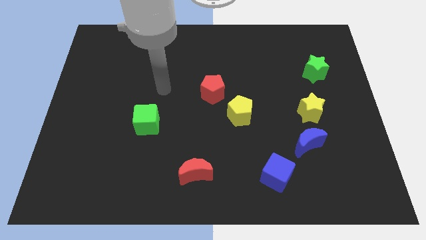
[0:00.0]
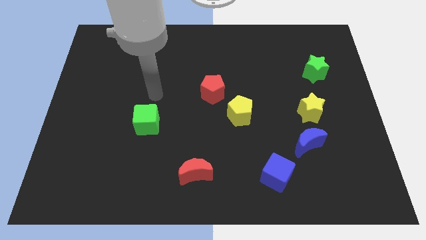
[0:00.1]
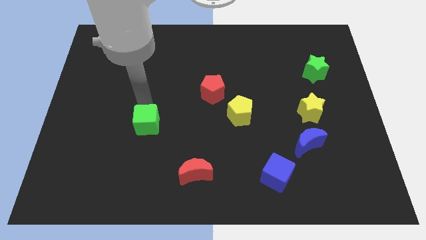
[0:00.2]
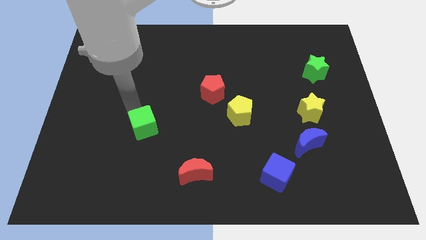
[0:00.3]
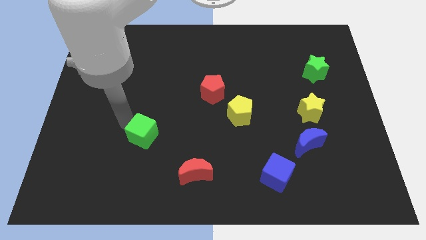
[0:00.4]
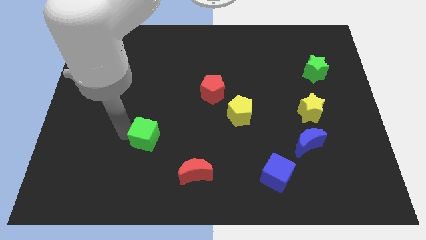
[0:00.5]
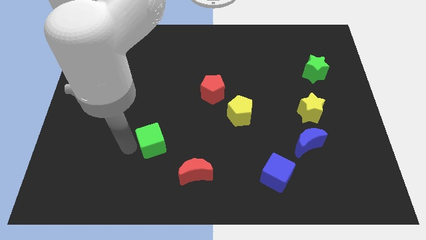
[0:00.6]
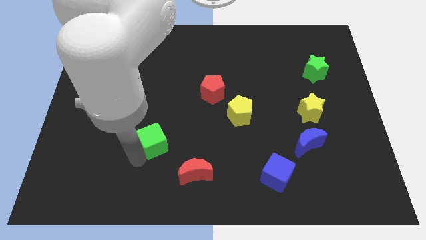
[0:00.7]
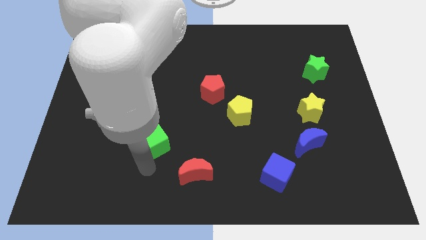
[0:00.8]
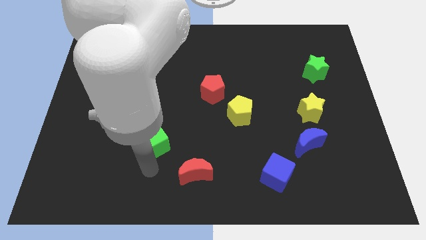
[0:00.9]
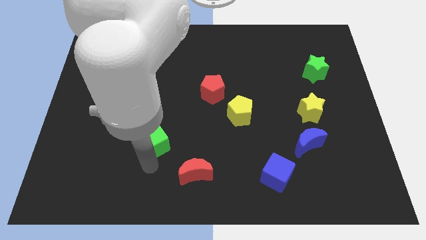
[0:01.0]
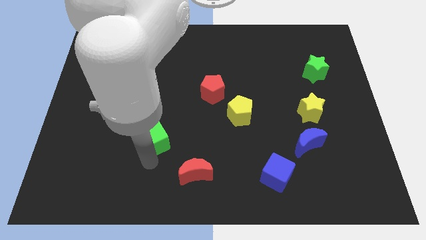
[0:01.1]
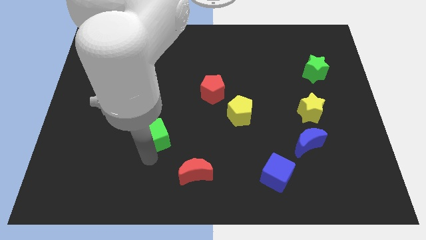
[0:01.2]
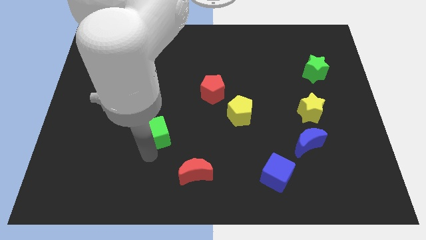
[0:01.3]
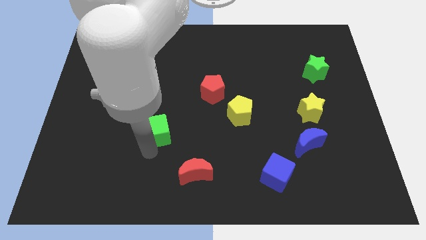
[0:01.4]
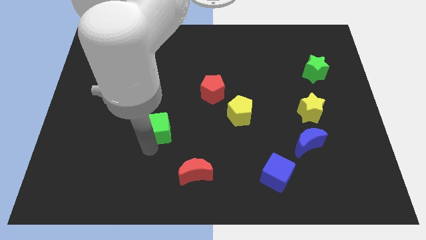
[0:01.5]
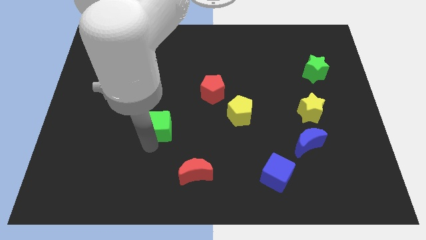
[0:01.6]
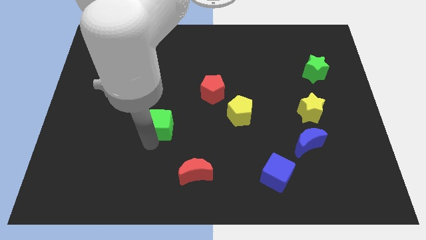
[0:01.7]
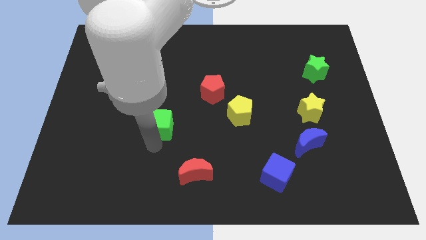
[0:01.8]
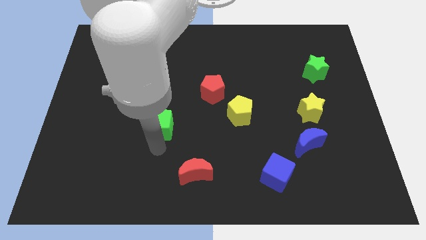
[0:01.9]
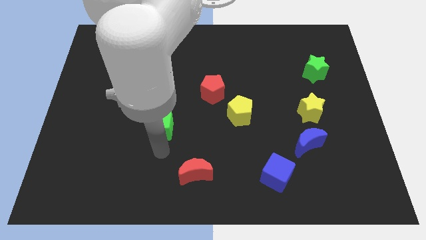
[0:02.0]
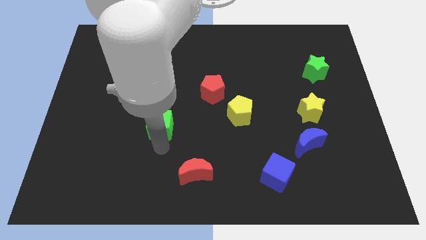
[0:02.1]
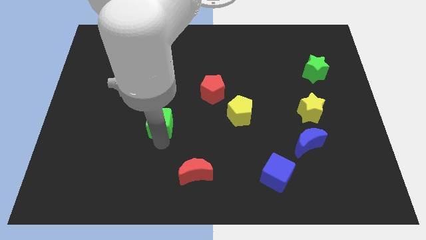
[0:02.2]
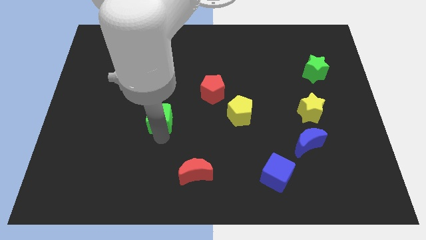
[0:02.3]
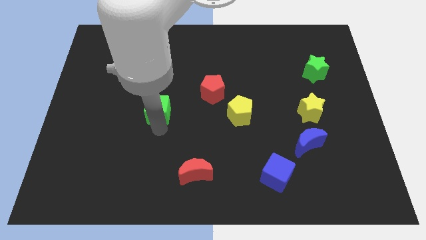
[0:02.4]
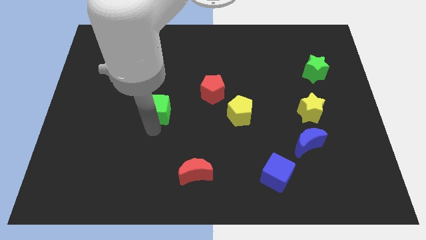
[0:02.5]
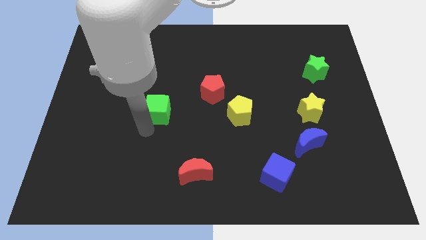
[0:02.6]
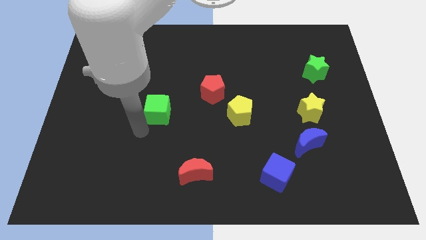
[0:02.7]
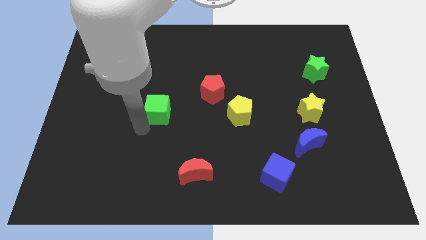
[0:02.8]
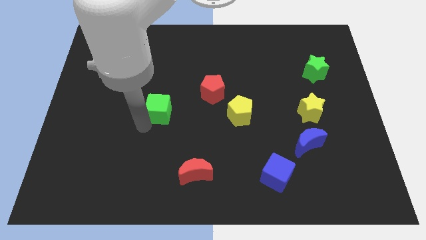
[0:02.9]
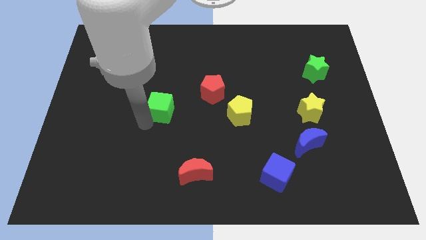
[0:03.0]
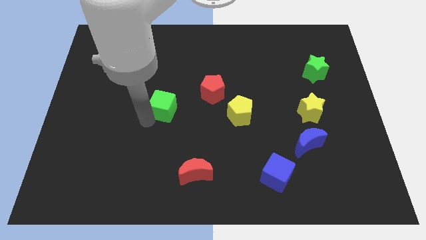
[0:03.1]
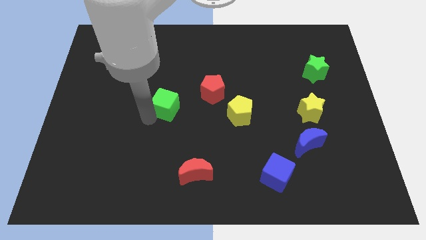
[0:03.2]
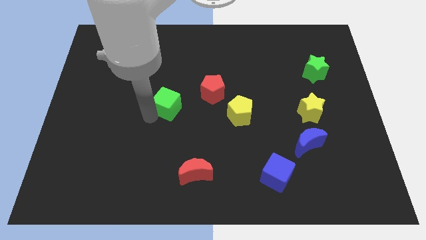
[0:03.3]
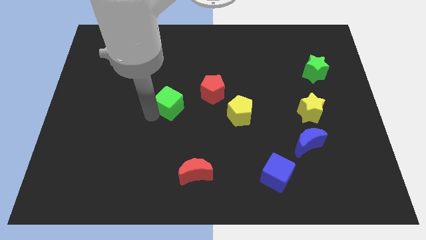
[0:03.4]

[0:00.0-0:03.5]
slightly move the green cube upwards and then to the right

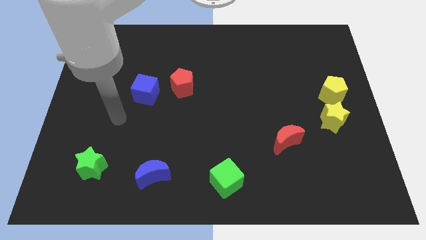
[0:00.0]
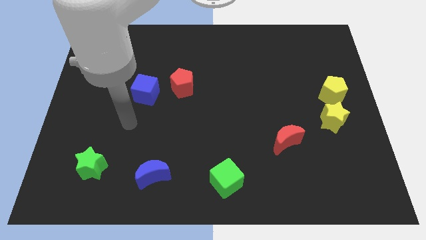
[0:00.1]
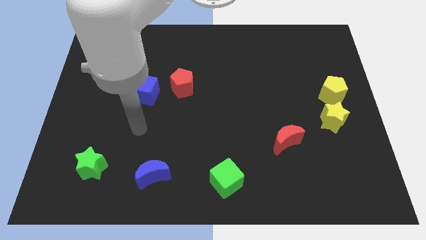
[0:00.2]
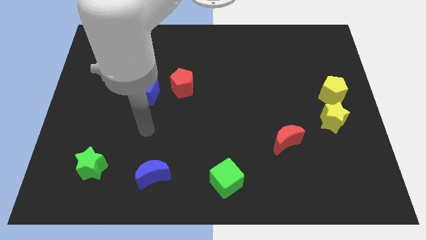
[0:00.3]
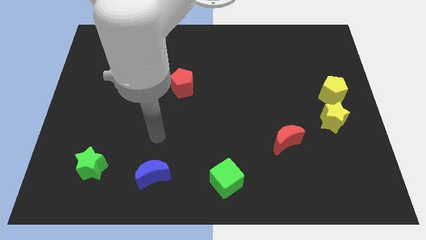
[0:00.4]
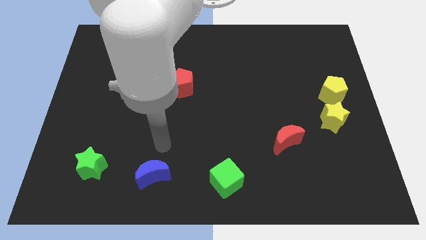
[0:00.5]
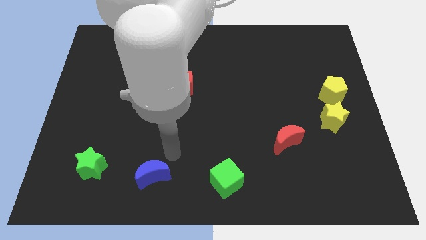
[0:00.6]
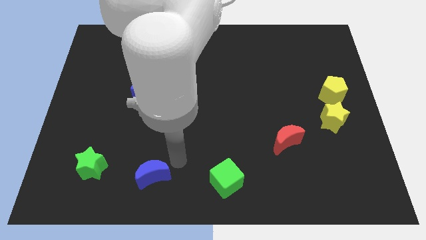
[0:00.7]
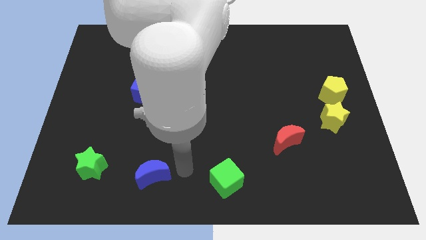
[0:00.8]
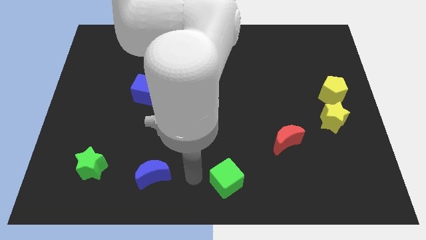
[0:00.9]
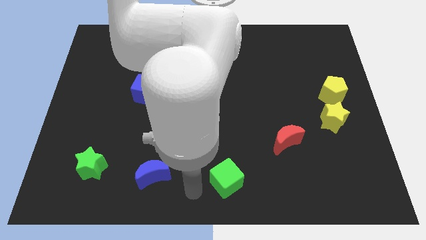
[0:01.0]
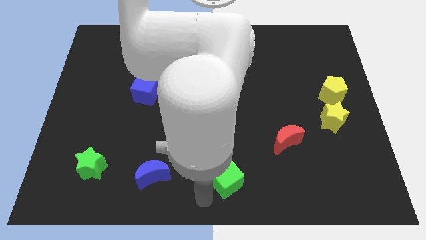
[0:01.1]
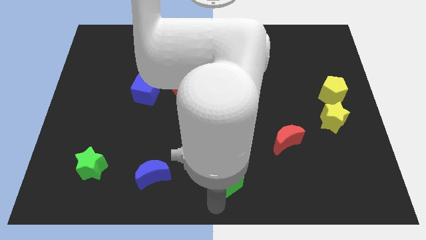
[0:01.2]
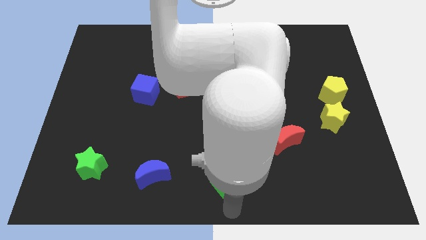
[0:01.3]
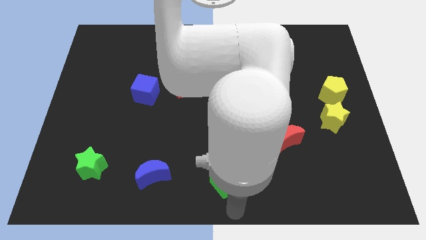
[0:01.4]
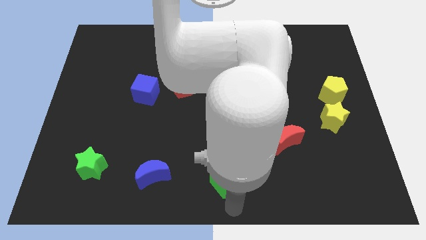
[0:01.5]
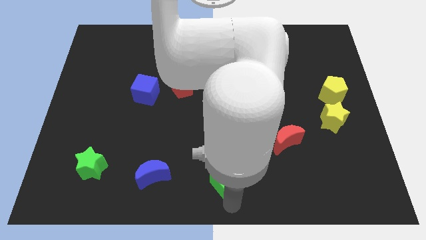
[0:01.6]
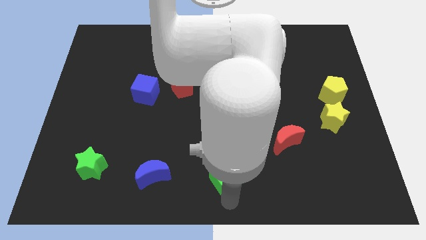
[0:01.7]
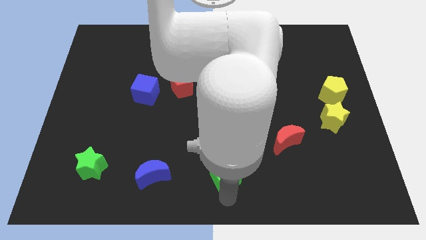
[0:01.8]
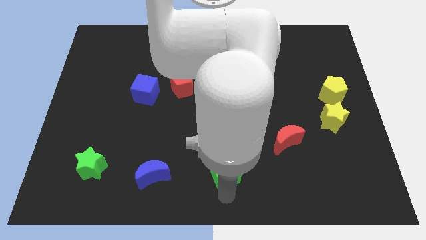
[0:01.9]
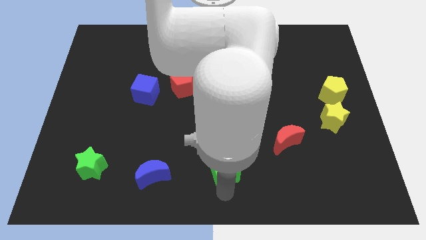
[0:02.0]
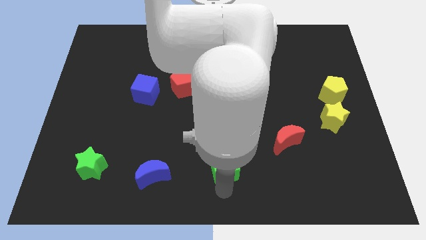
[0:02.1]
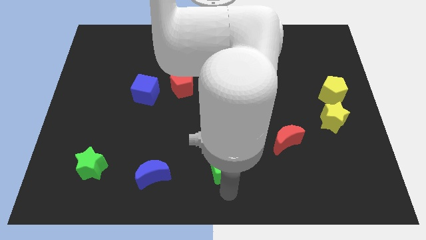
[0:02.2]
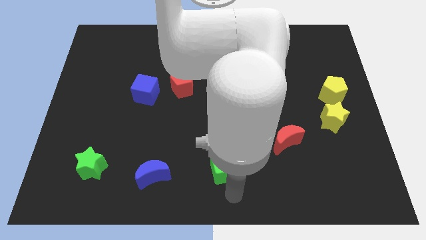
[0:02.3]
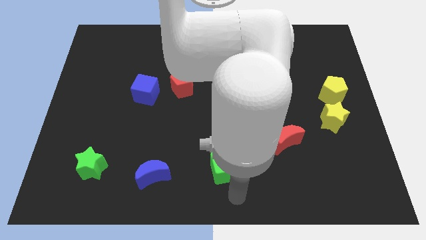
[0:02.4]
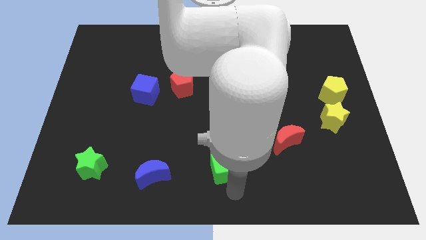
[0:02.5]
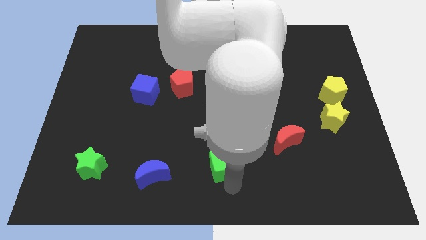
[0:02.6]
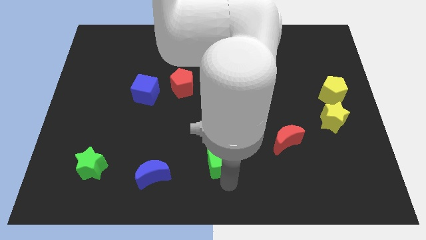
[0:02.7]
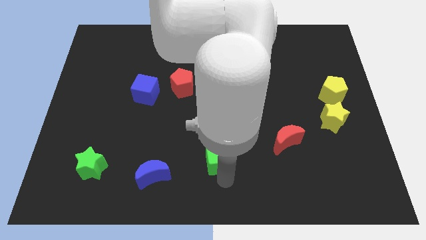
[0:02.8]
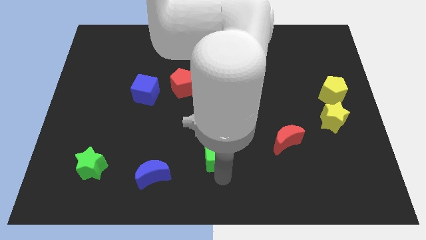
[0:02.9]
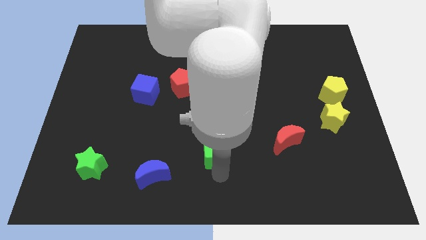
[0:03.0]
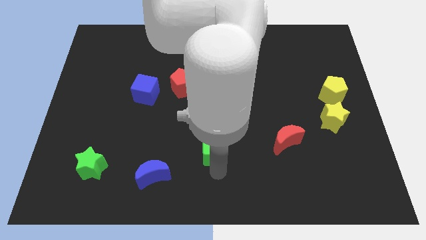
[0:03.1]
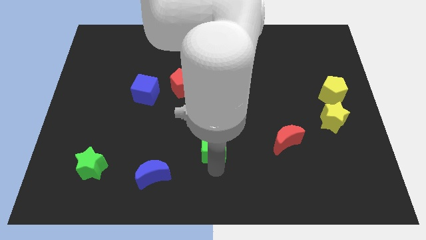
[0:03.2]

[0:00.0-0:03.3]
slightly push the green cube up

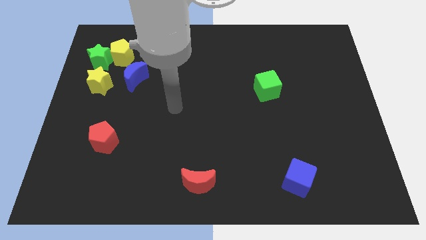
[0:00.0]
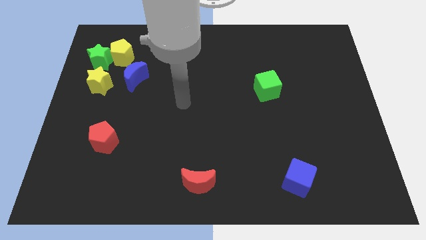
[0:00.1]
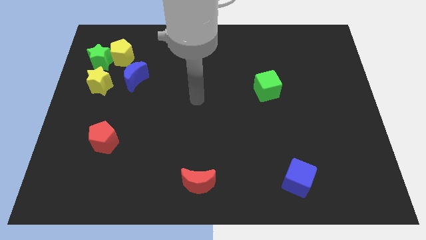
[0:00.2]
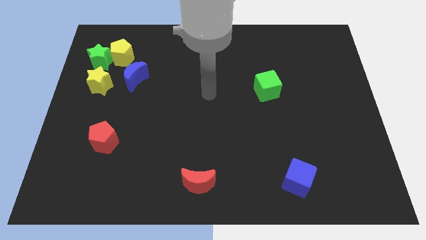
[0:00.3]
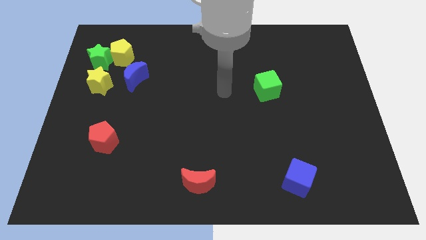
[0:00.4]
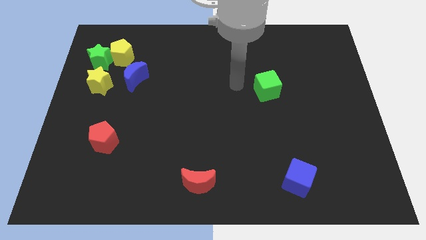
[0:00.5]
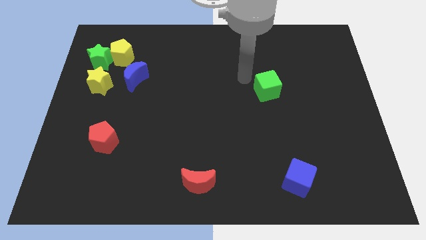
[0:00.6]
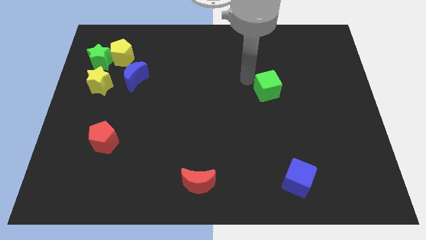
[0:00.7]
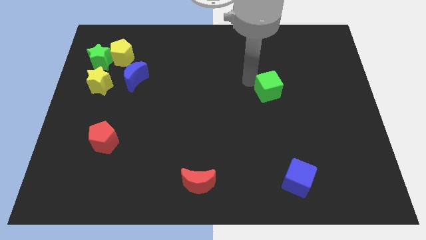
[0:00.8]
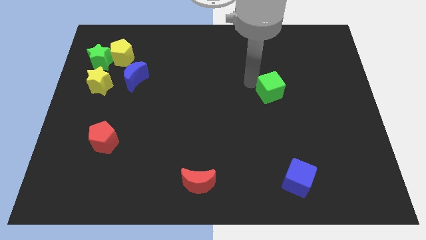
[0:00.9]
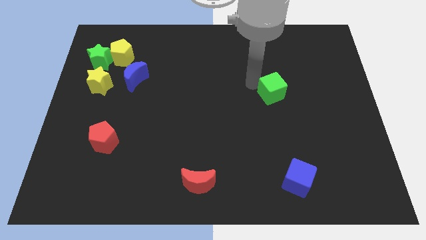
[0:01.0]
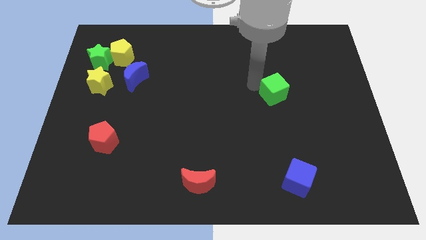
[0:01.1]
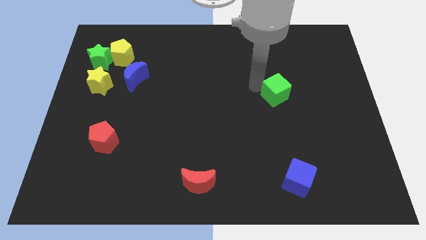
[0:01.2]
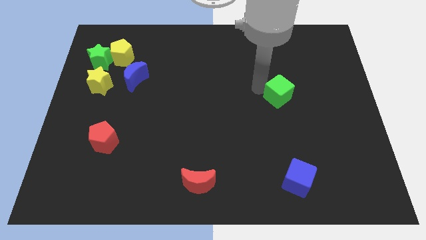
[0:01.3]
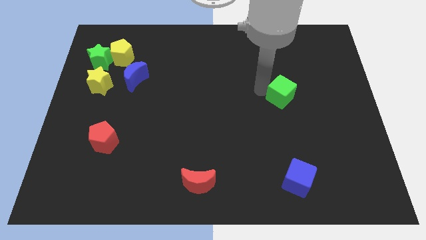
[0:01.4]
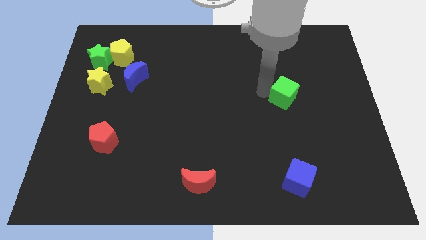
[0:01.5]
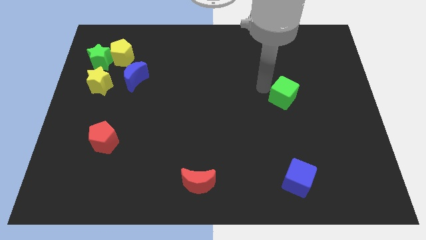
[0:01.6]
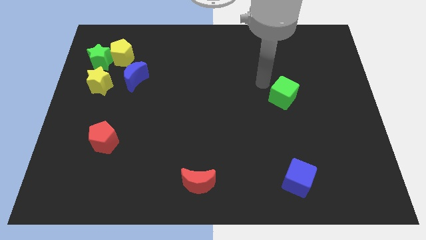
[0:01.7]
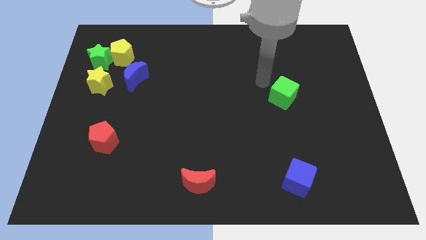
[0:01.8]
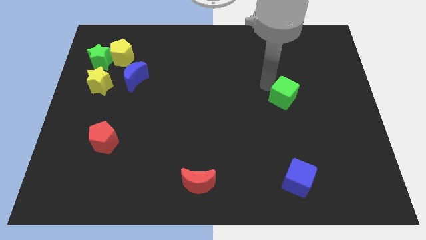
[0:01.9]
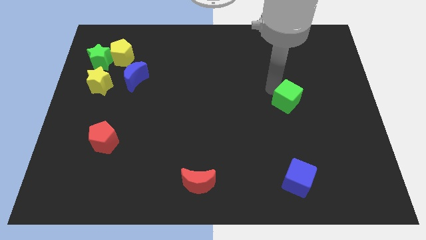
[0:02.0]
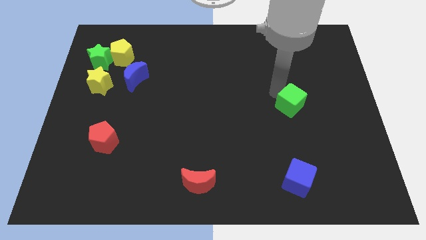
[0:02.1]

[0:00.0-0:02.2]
move the green cube downwards and right diagonally slightly
